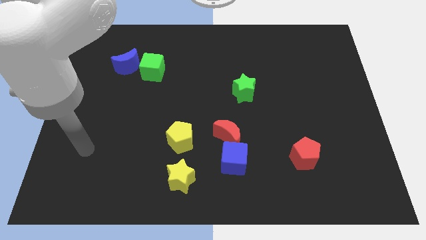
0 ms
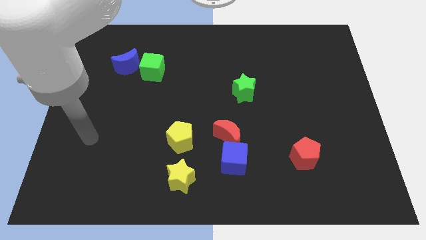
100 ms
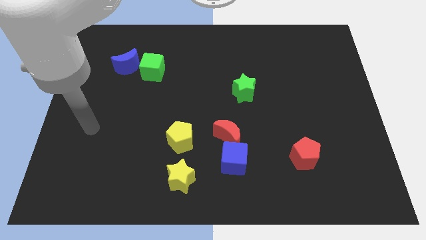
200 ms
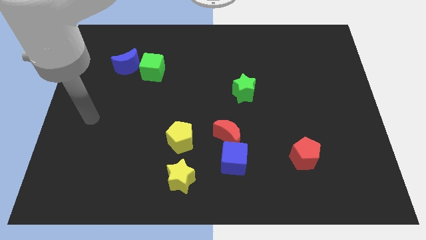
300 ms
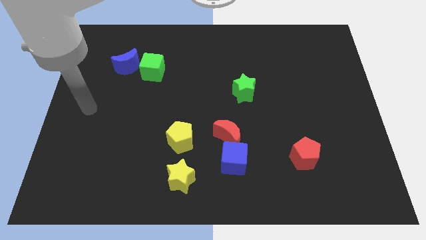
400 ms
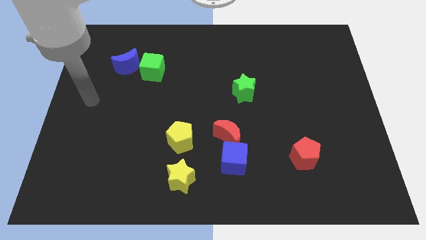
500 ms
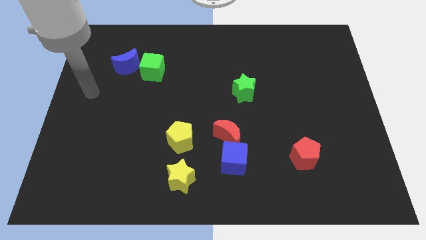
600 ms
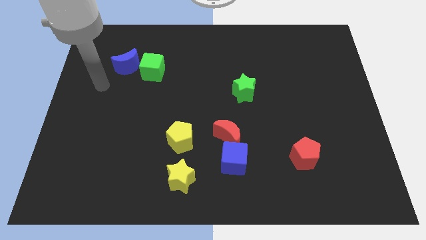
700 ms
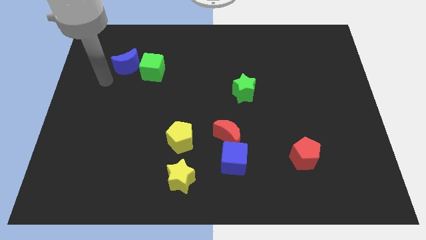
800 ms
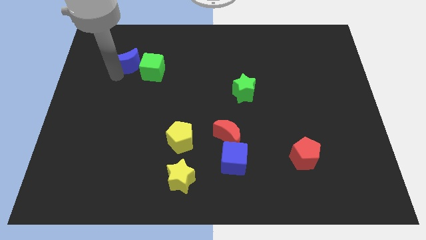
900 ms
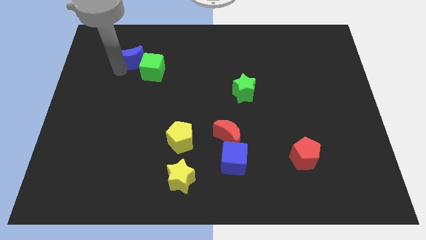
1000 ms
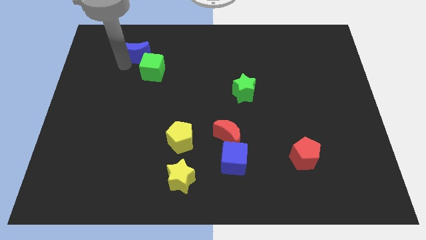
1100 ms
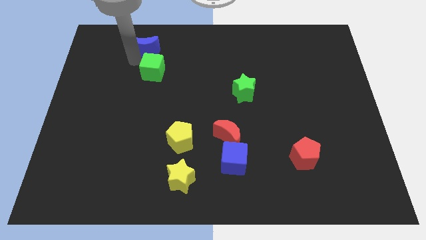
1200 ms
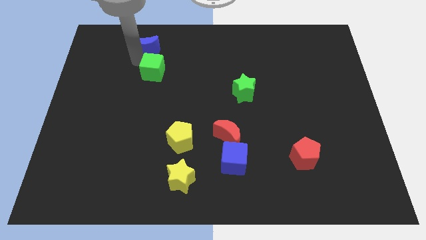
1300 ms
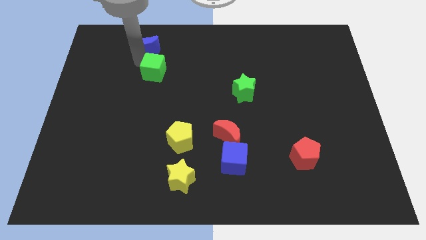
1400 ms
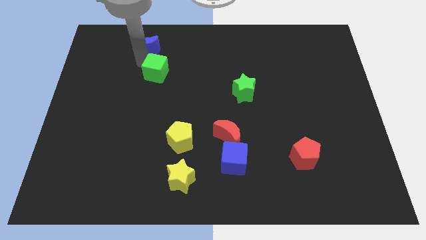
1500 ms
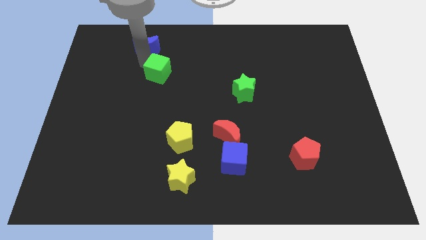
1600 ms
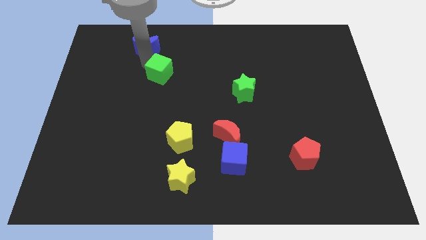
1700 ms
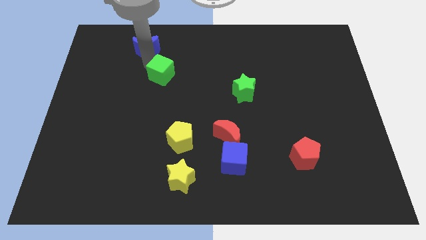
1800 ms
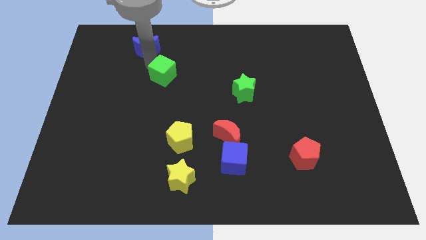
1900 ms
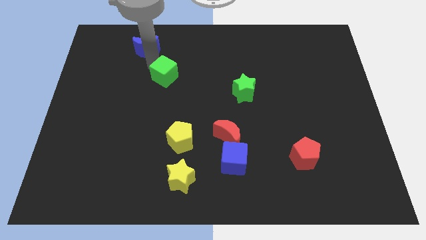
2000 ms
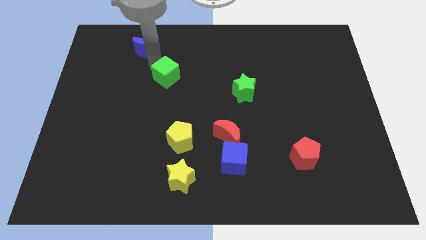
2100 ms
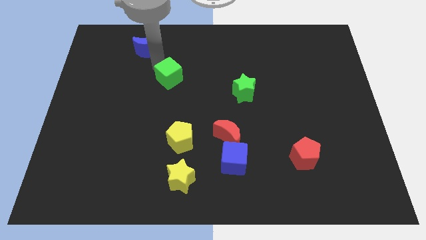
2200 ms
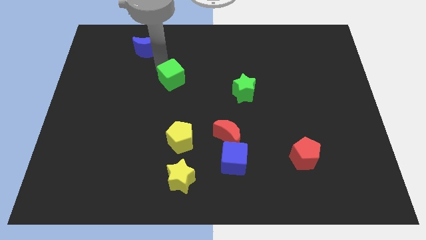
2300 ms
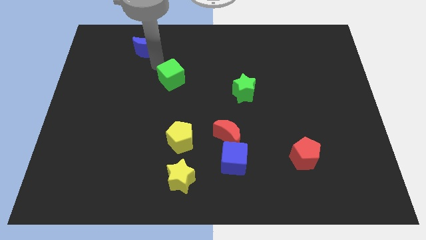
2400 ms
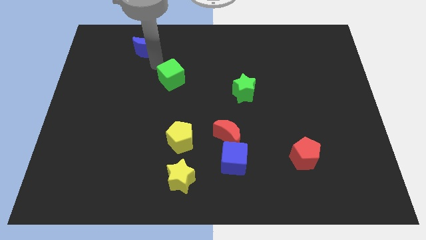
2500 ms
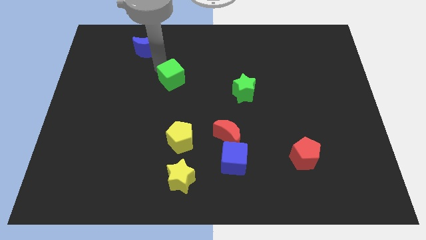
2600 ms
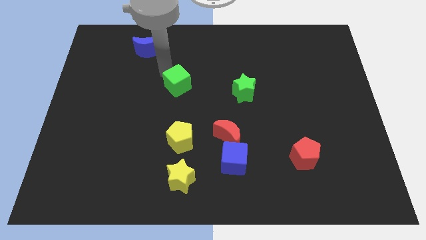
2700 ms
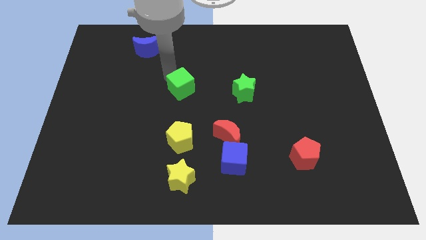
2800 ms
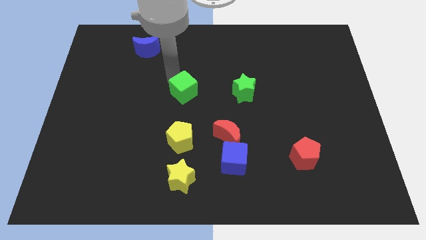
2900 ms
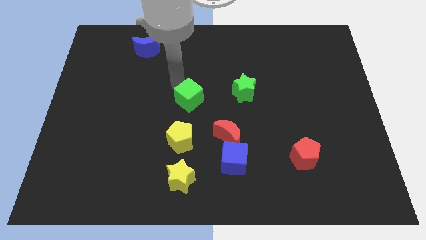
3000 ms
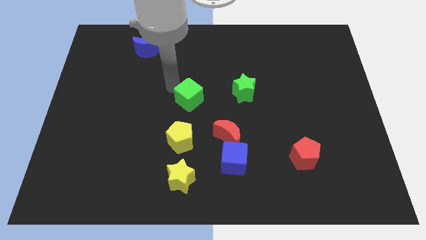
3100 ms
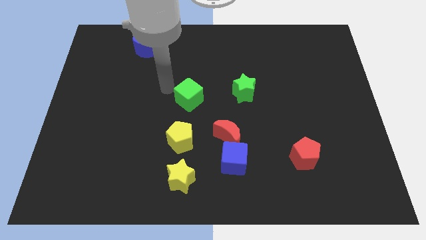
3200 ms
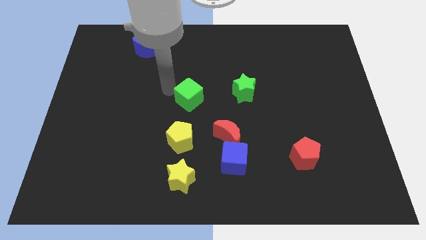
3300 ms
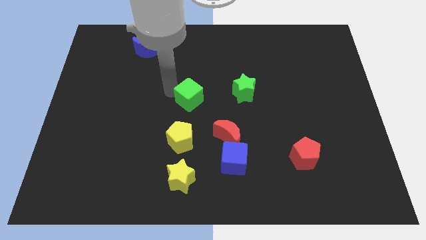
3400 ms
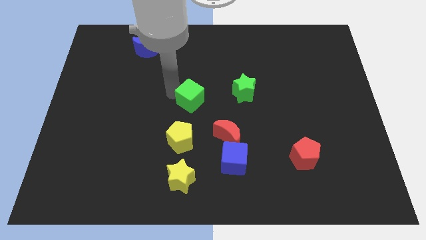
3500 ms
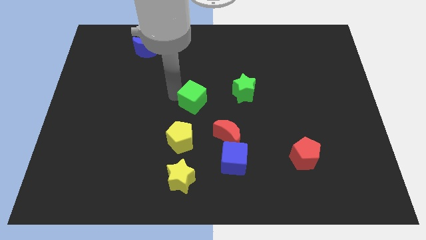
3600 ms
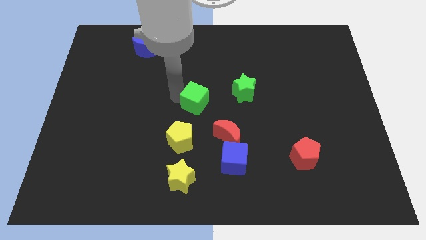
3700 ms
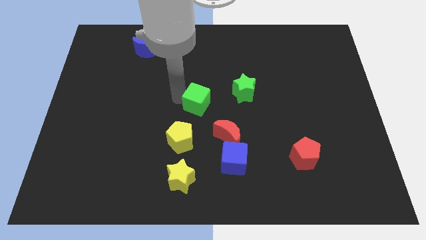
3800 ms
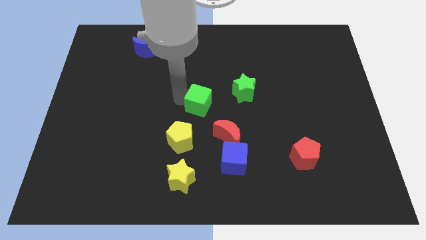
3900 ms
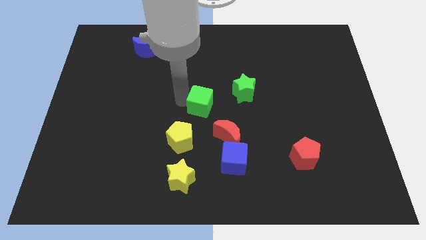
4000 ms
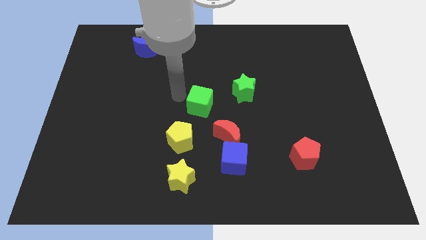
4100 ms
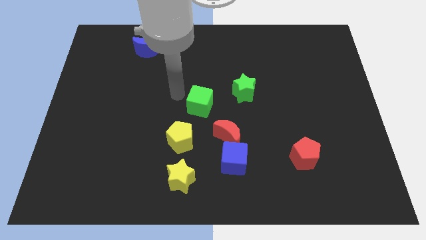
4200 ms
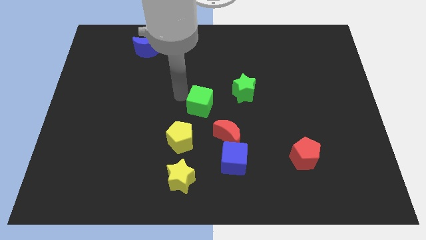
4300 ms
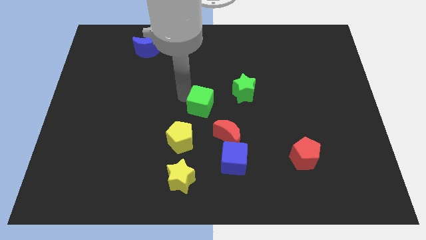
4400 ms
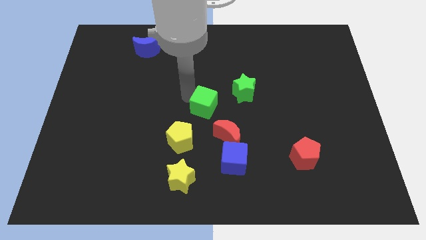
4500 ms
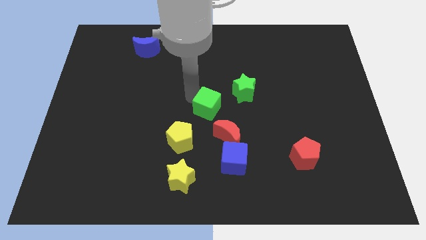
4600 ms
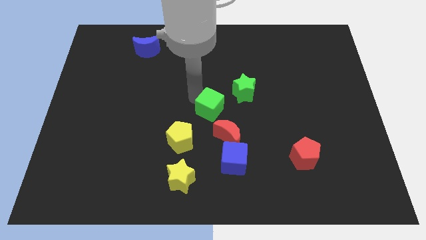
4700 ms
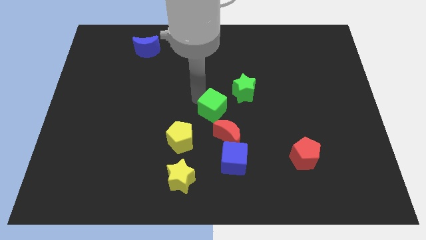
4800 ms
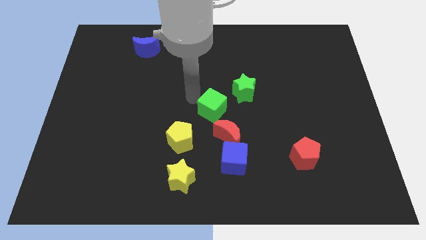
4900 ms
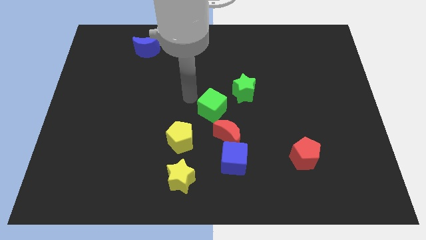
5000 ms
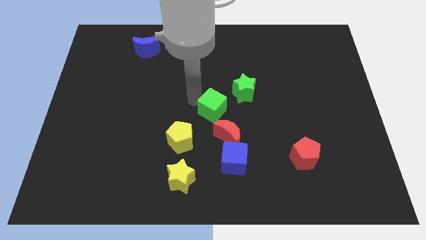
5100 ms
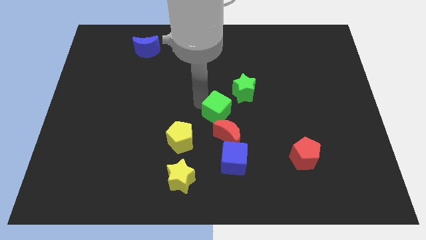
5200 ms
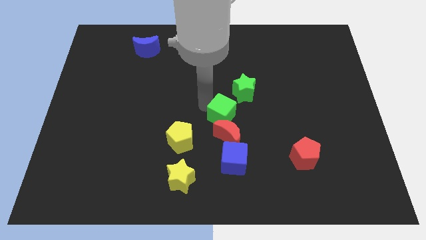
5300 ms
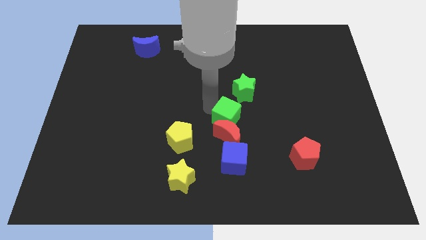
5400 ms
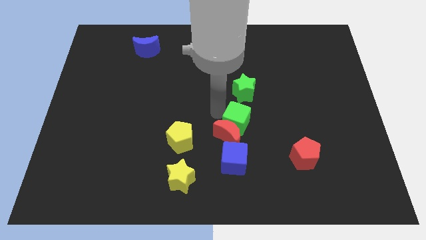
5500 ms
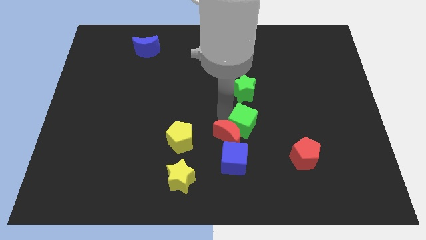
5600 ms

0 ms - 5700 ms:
move the green cube to the right of the red moon

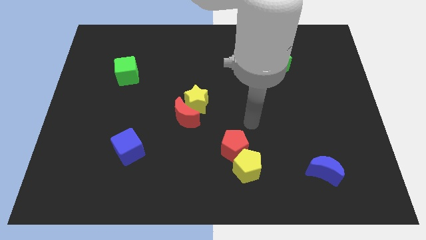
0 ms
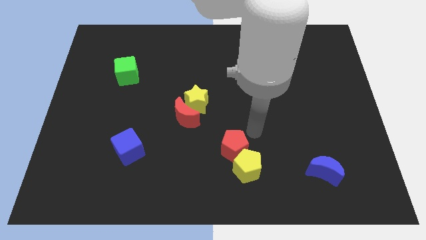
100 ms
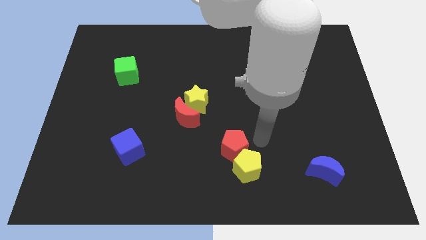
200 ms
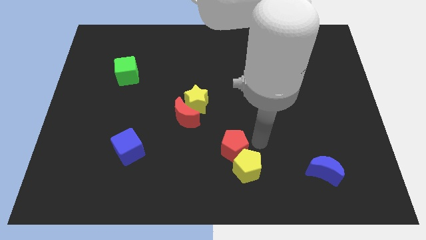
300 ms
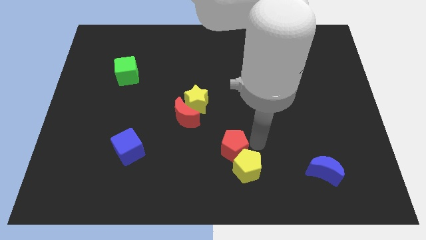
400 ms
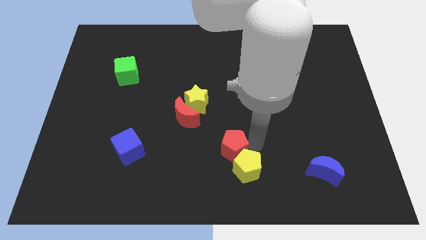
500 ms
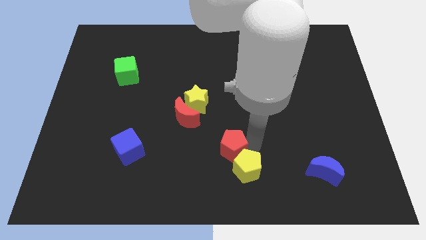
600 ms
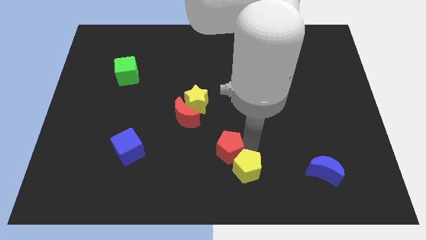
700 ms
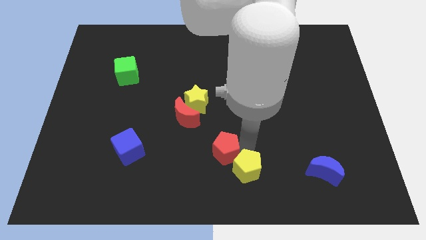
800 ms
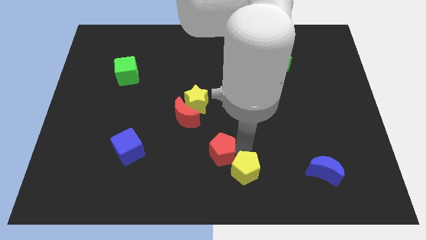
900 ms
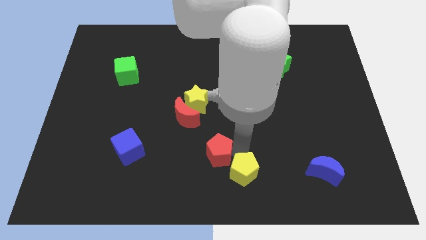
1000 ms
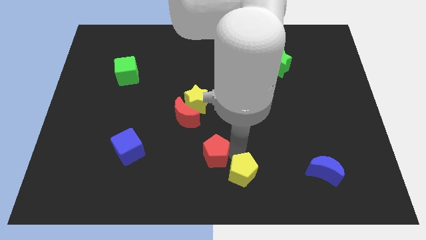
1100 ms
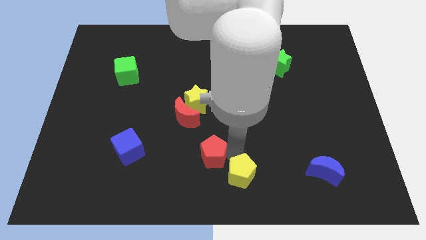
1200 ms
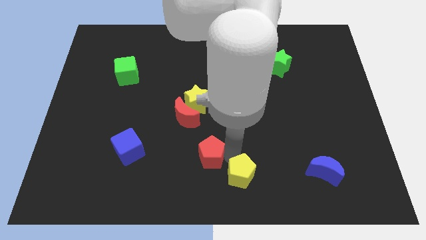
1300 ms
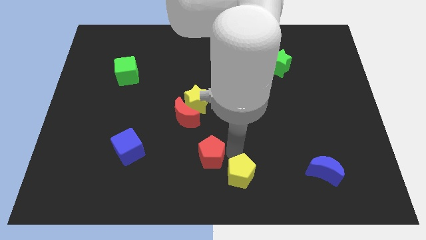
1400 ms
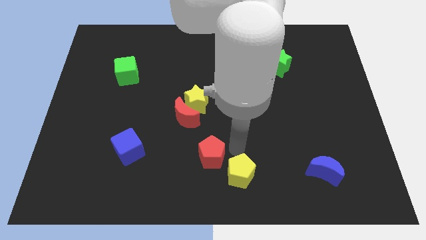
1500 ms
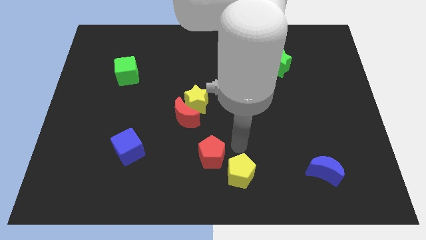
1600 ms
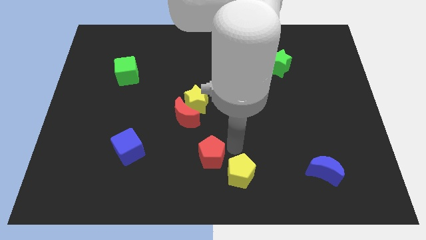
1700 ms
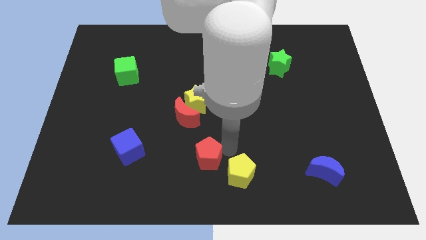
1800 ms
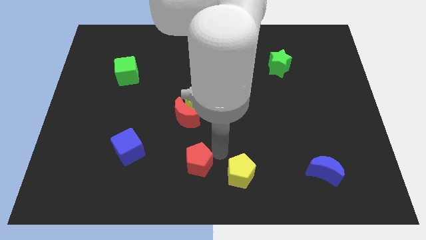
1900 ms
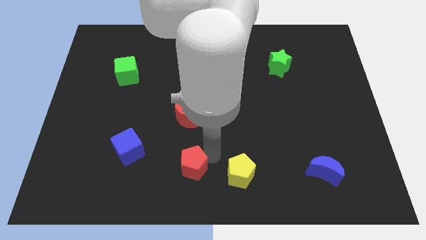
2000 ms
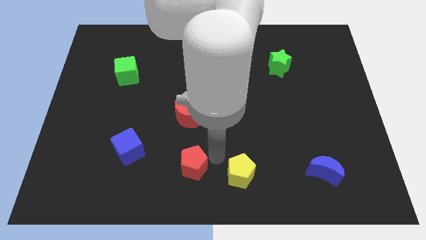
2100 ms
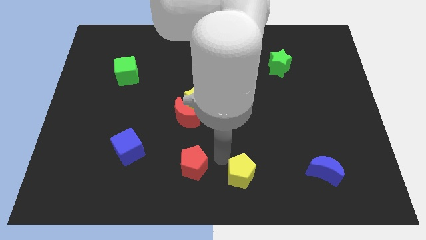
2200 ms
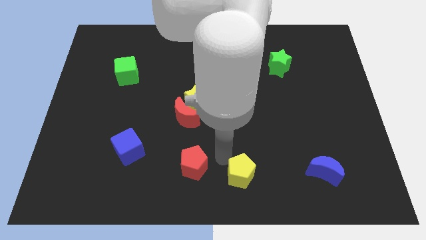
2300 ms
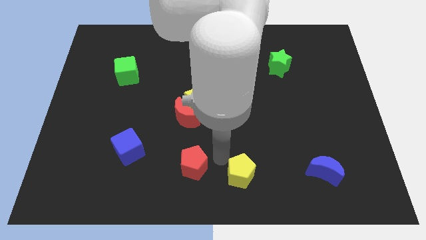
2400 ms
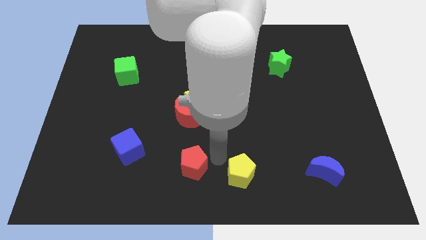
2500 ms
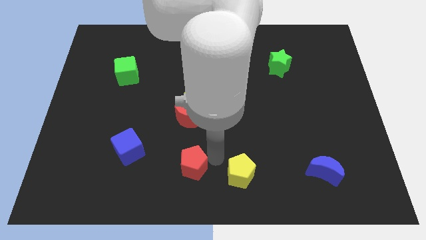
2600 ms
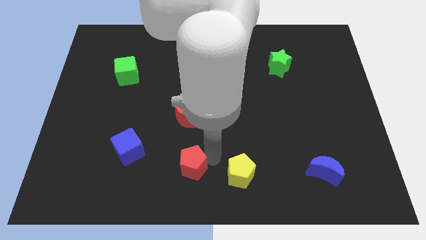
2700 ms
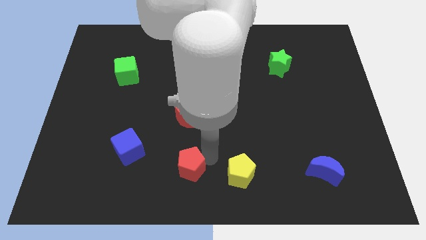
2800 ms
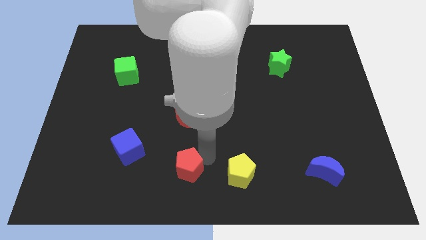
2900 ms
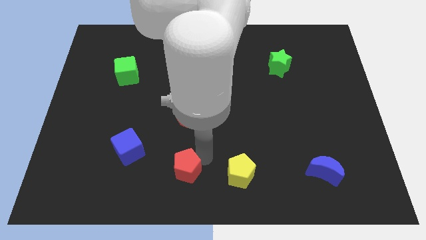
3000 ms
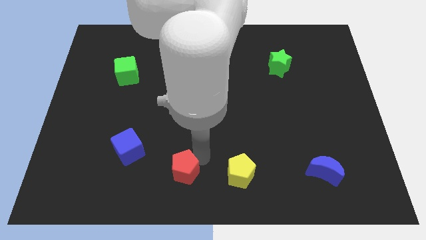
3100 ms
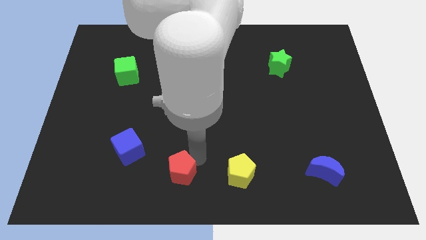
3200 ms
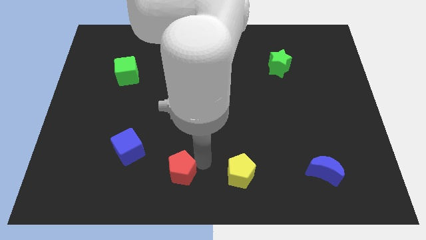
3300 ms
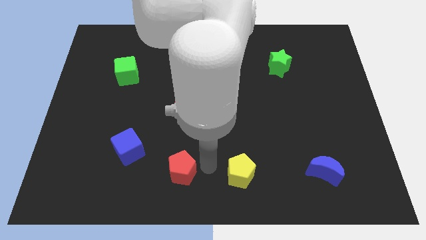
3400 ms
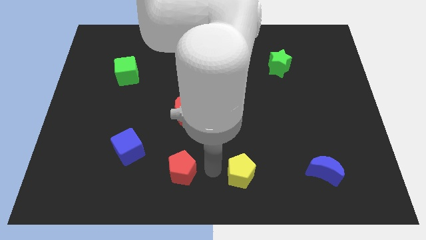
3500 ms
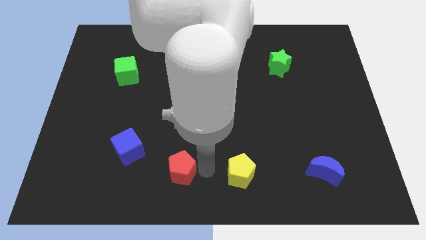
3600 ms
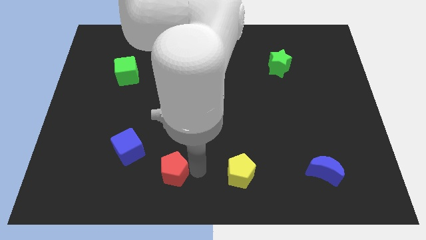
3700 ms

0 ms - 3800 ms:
slide the red pentagon diagonally down and to the right of the blue cube
